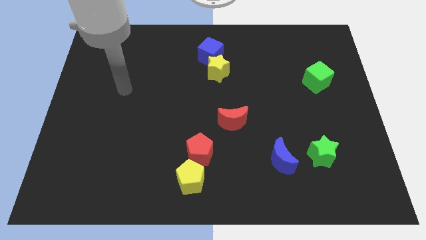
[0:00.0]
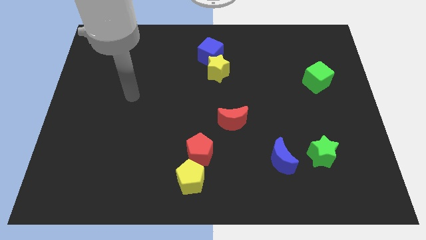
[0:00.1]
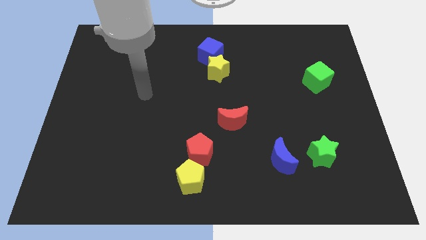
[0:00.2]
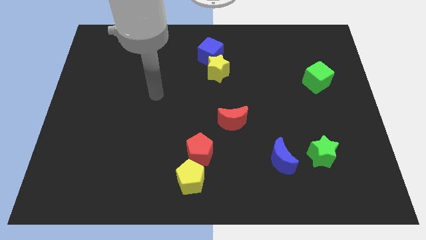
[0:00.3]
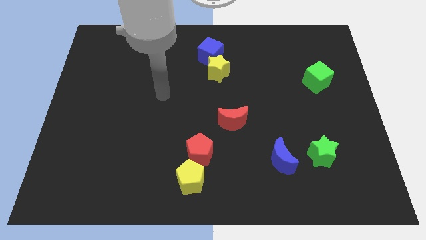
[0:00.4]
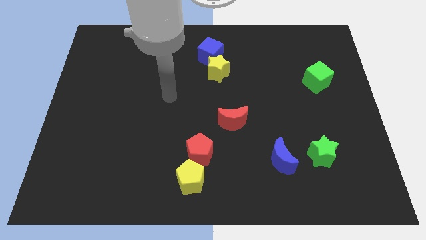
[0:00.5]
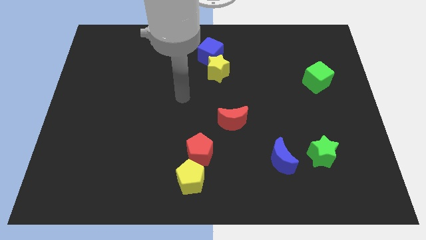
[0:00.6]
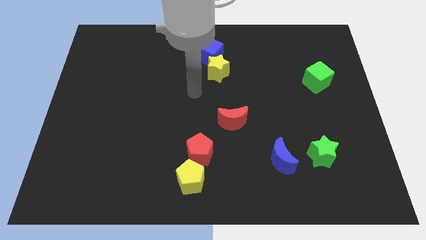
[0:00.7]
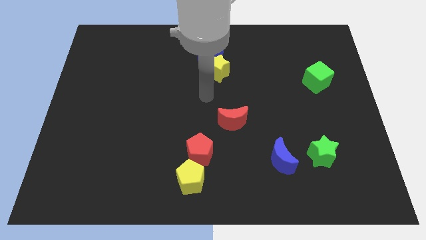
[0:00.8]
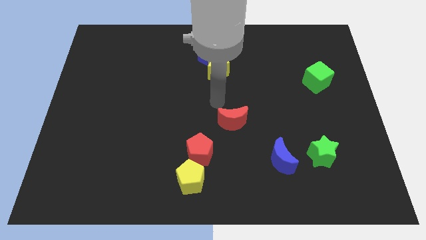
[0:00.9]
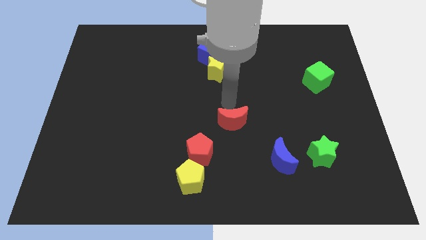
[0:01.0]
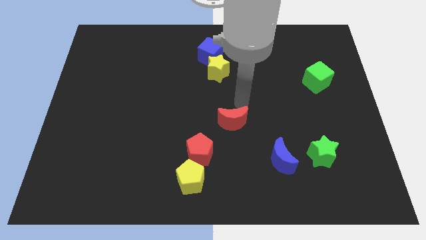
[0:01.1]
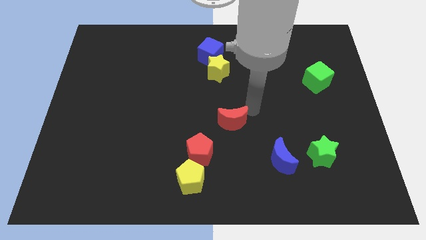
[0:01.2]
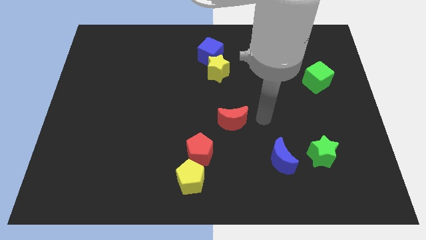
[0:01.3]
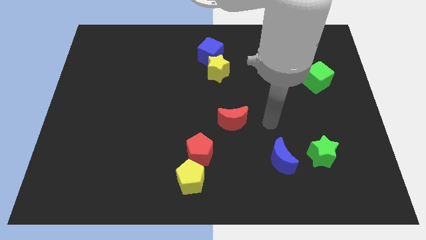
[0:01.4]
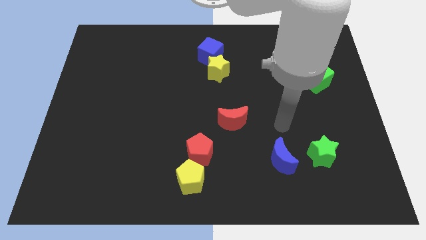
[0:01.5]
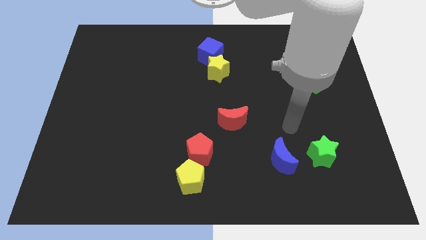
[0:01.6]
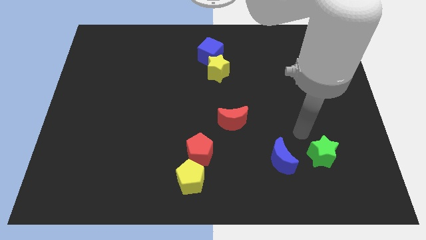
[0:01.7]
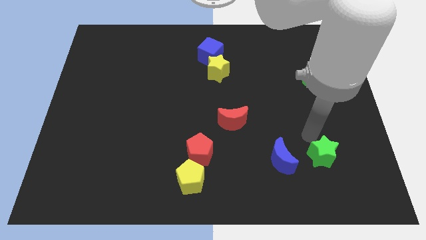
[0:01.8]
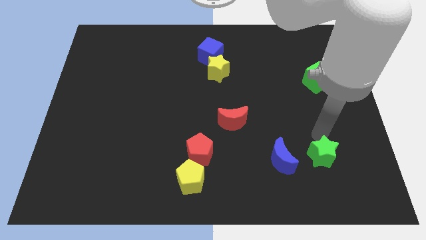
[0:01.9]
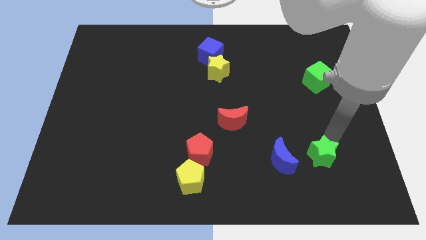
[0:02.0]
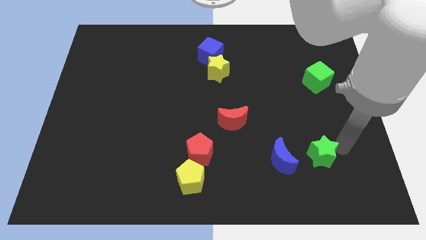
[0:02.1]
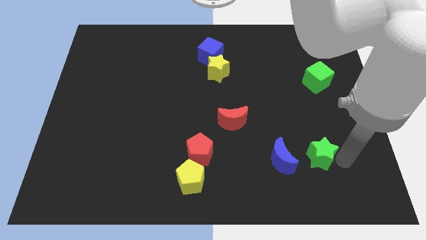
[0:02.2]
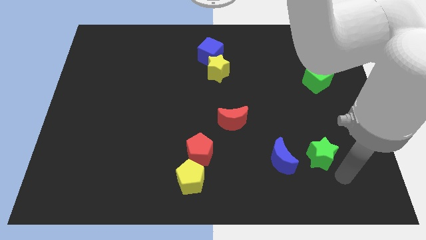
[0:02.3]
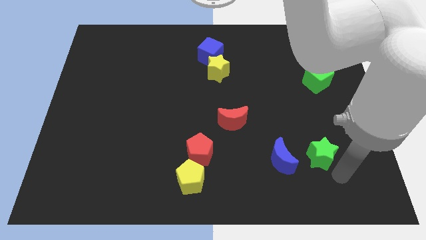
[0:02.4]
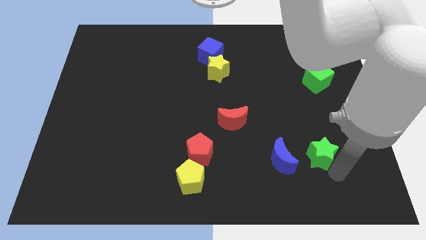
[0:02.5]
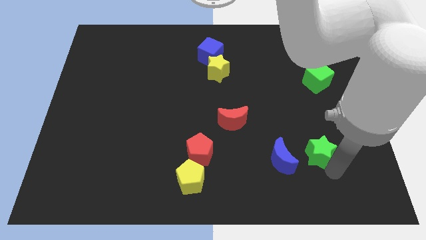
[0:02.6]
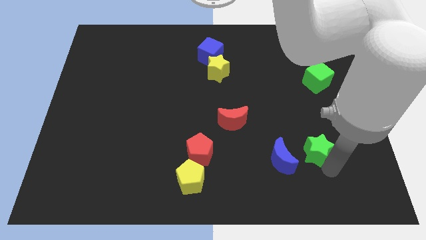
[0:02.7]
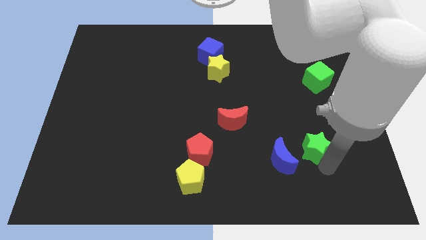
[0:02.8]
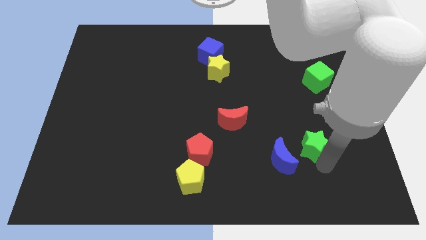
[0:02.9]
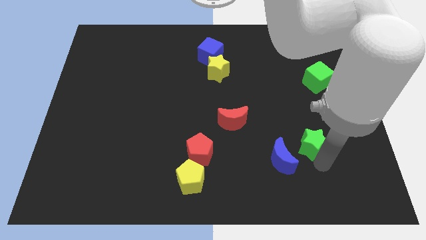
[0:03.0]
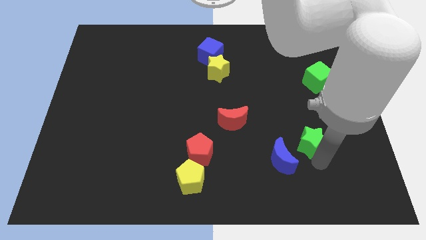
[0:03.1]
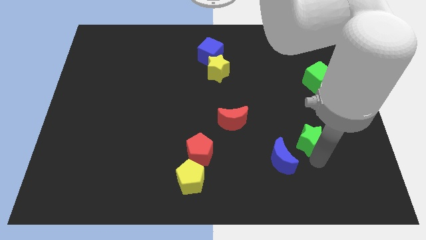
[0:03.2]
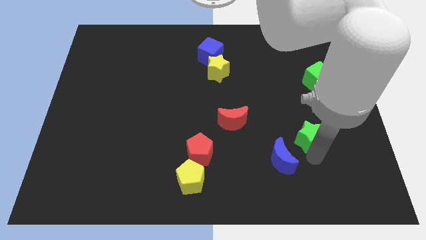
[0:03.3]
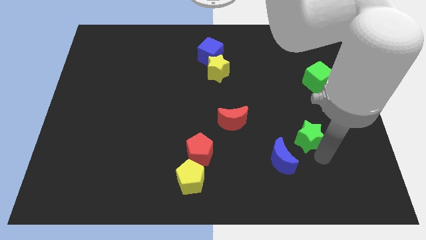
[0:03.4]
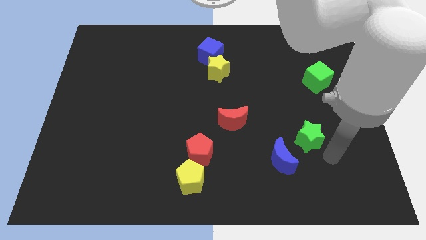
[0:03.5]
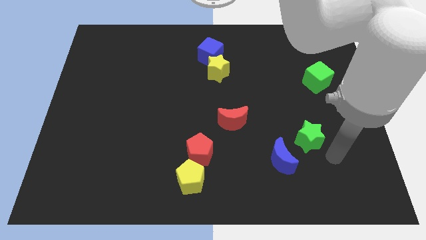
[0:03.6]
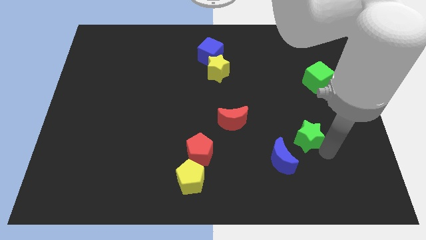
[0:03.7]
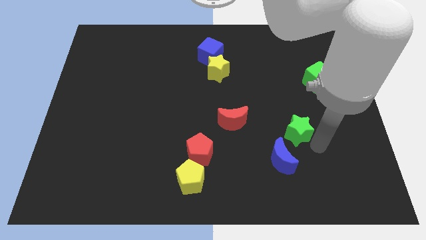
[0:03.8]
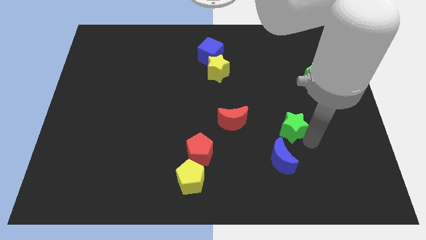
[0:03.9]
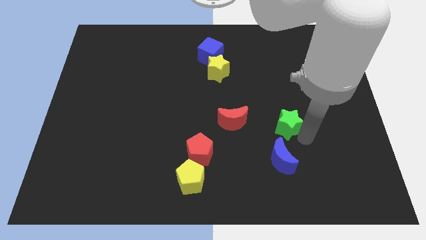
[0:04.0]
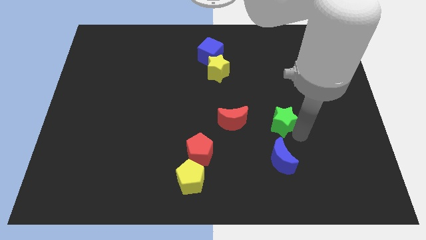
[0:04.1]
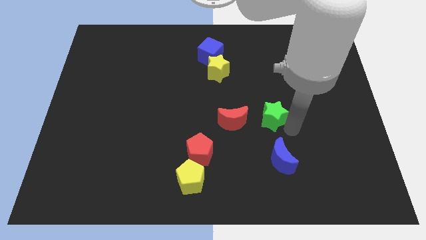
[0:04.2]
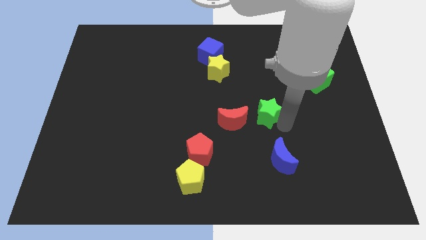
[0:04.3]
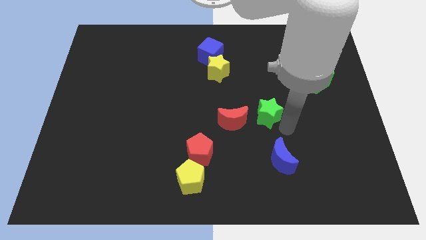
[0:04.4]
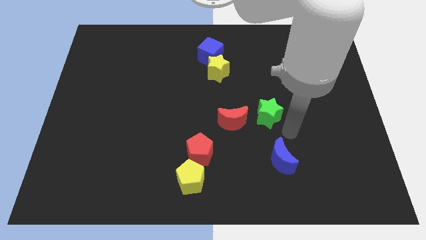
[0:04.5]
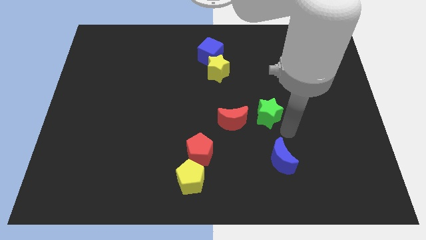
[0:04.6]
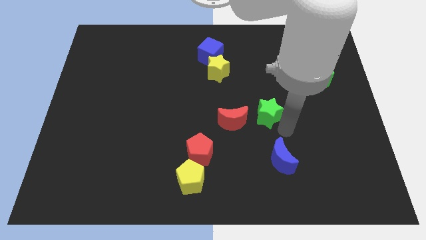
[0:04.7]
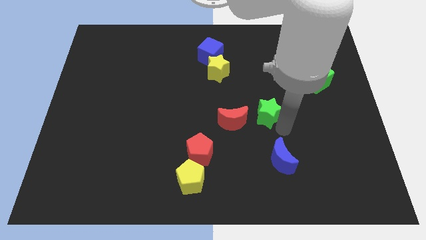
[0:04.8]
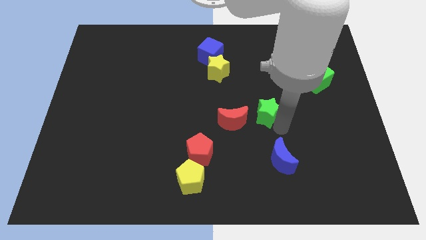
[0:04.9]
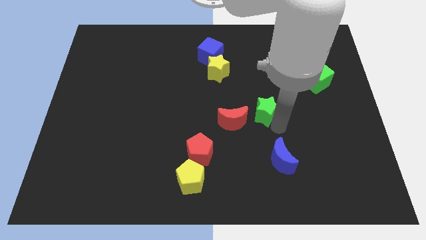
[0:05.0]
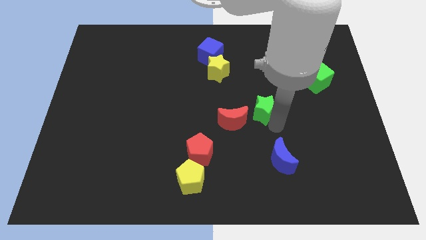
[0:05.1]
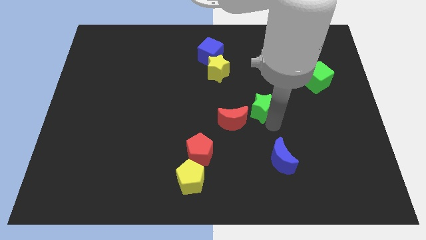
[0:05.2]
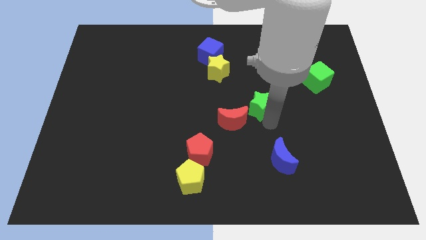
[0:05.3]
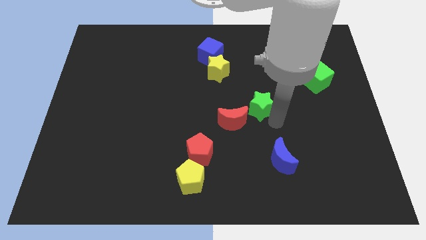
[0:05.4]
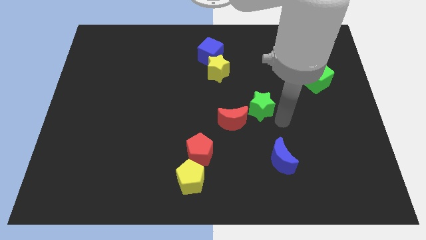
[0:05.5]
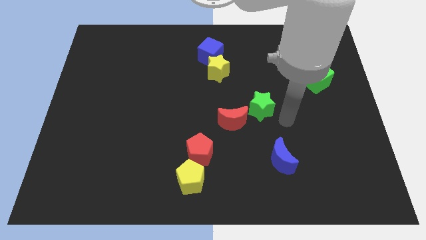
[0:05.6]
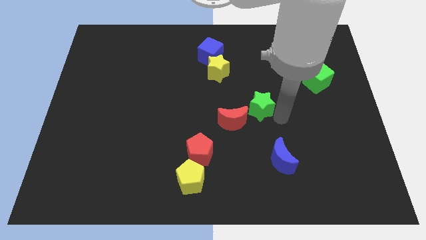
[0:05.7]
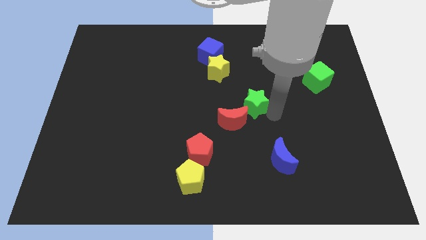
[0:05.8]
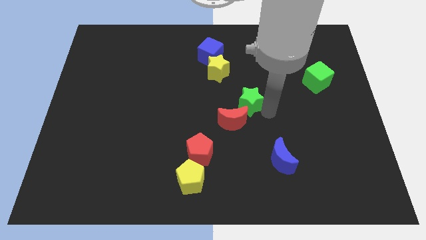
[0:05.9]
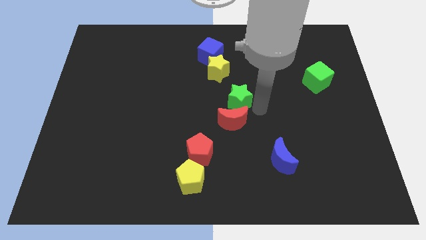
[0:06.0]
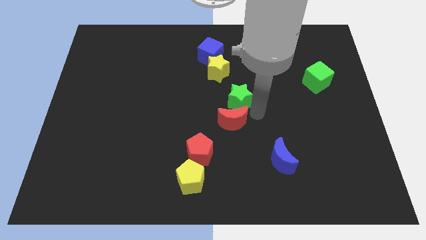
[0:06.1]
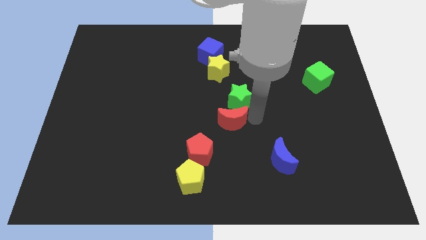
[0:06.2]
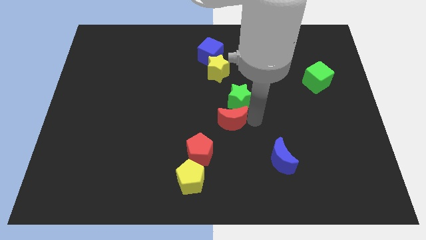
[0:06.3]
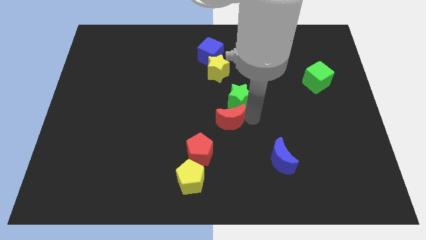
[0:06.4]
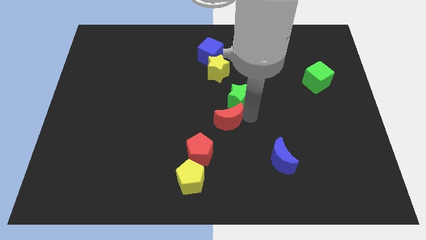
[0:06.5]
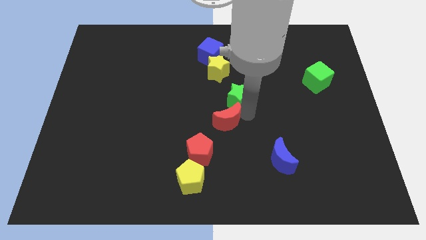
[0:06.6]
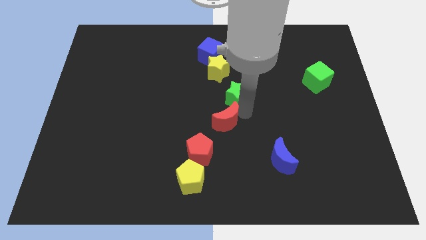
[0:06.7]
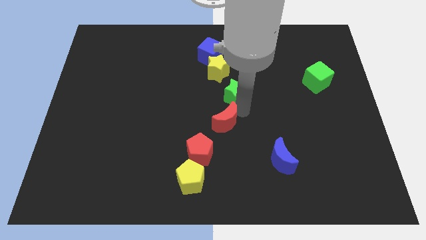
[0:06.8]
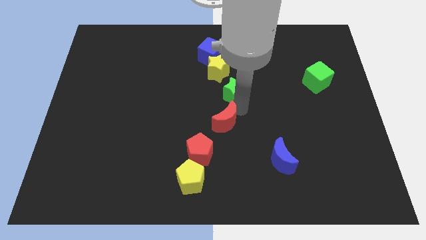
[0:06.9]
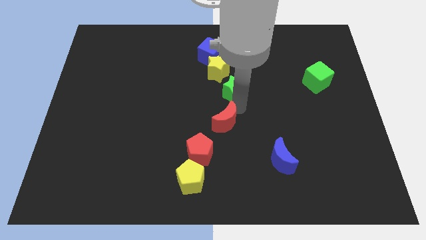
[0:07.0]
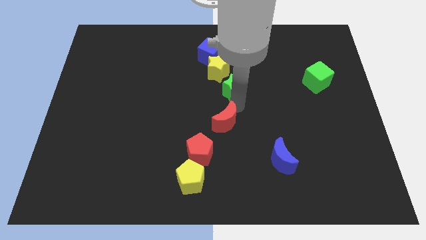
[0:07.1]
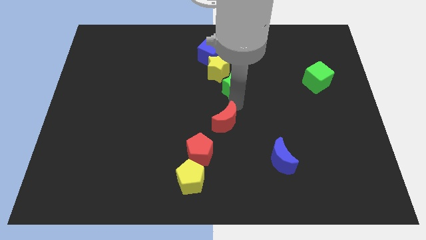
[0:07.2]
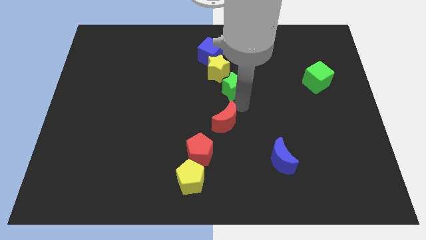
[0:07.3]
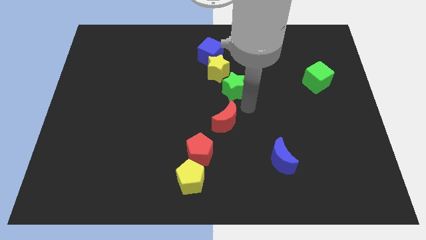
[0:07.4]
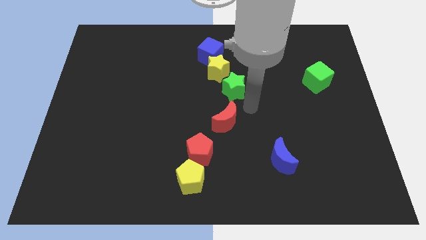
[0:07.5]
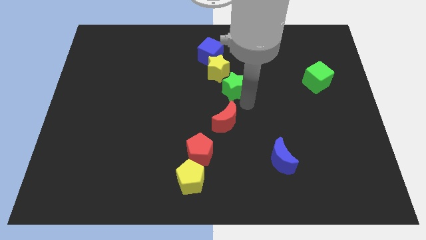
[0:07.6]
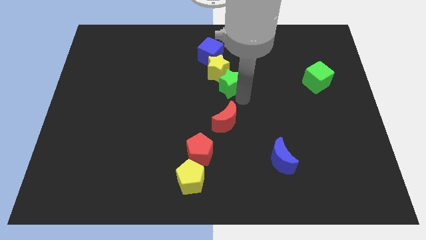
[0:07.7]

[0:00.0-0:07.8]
slide the green star towards the yellow star

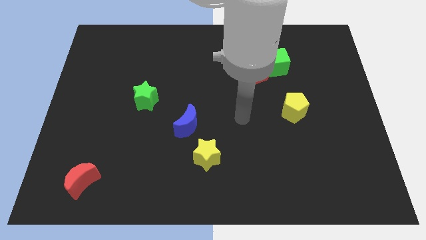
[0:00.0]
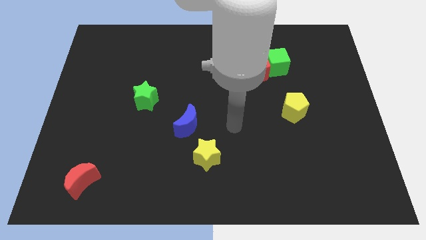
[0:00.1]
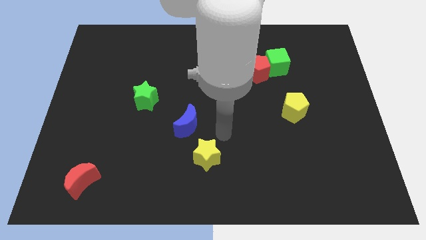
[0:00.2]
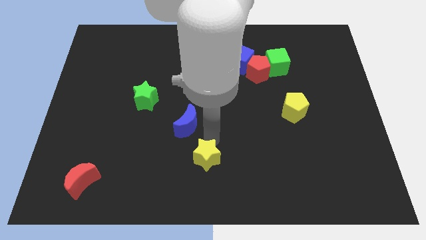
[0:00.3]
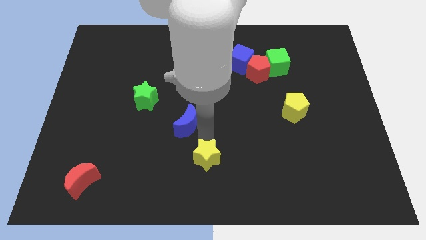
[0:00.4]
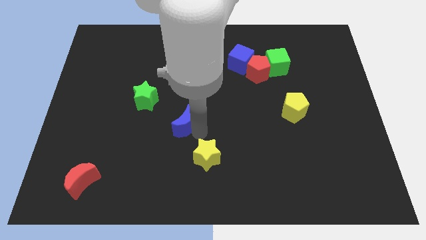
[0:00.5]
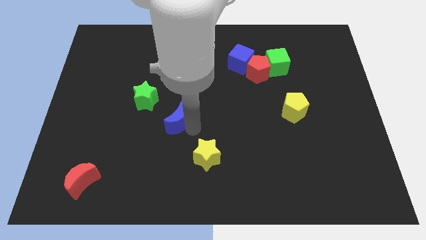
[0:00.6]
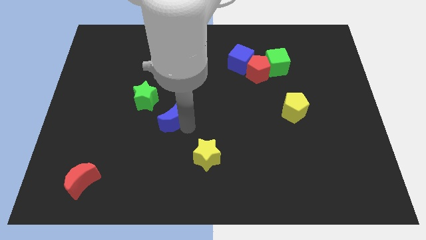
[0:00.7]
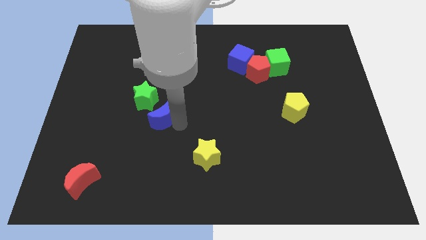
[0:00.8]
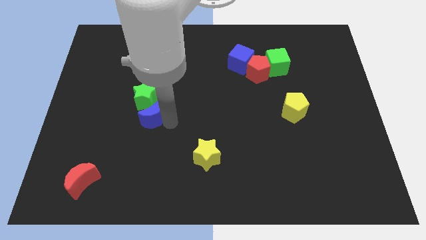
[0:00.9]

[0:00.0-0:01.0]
move the blue moon close to the green star
